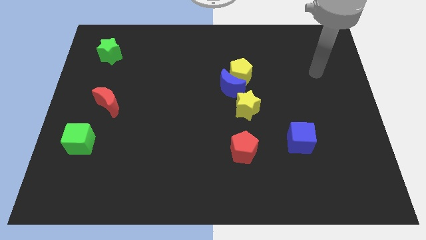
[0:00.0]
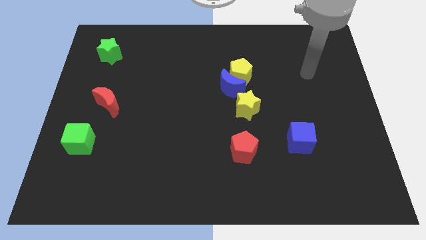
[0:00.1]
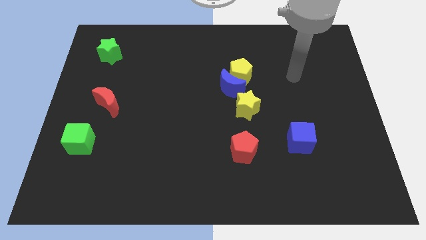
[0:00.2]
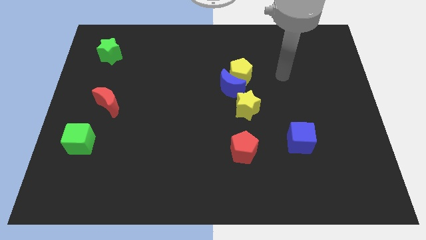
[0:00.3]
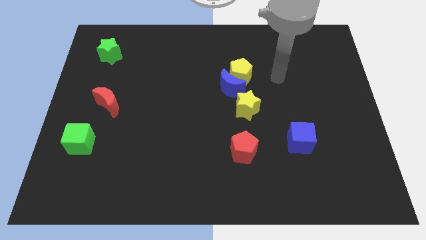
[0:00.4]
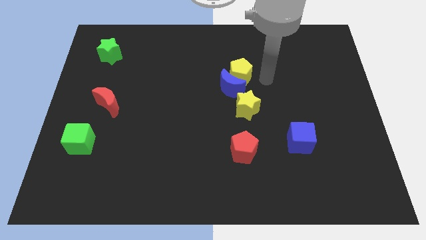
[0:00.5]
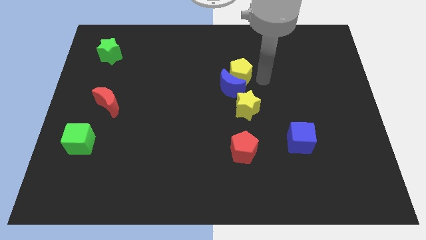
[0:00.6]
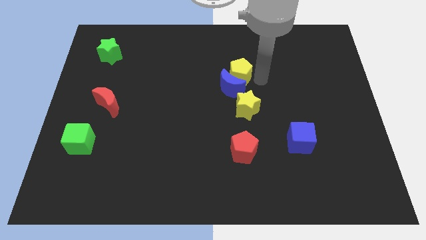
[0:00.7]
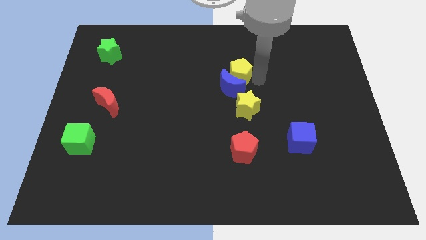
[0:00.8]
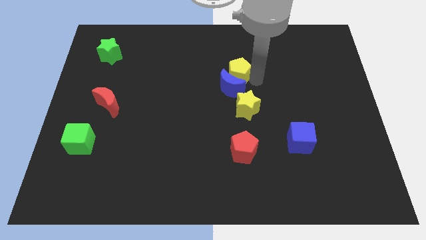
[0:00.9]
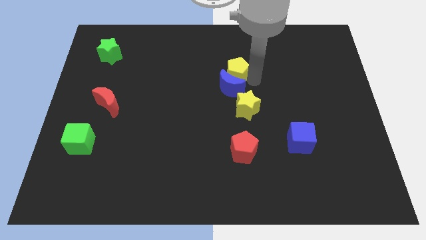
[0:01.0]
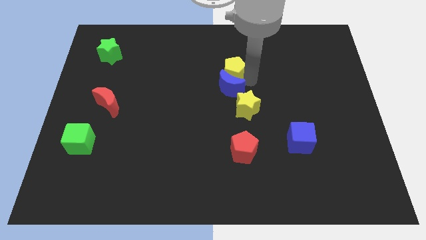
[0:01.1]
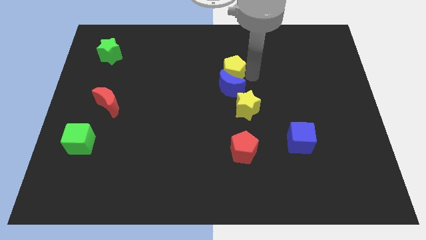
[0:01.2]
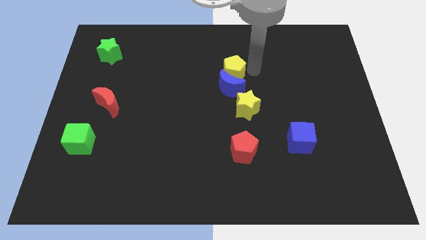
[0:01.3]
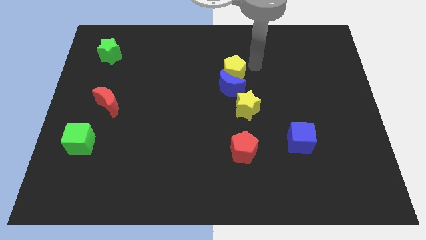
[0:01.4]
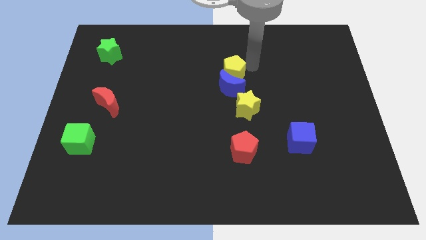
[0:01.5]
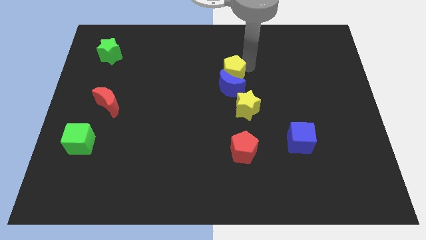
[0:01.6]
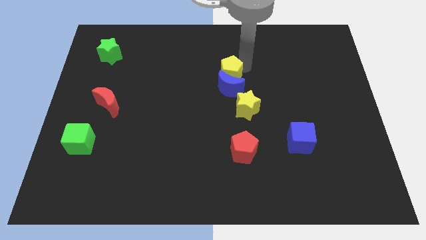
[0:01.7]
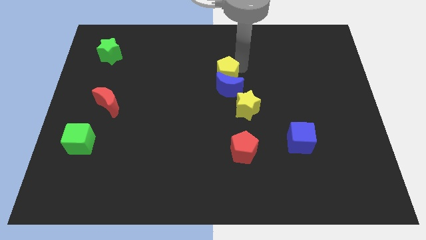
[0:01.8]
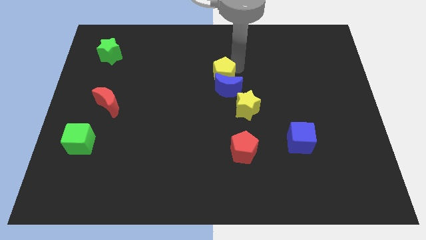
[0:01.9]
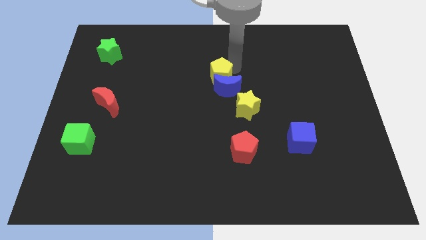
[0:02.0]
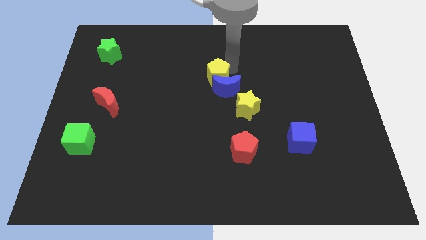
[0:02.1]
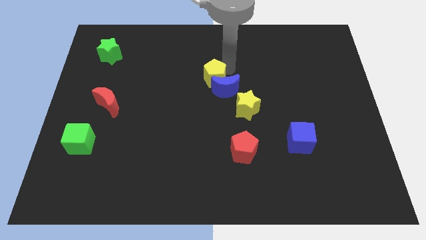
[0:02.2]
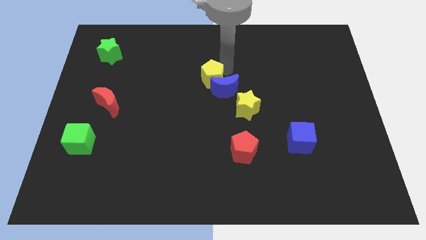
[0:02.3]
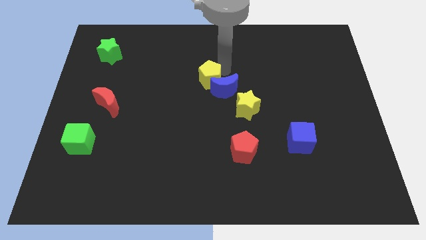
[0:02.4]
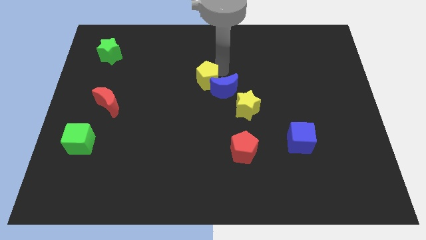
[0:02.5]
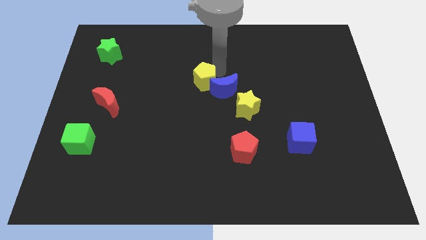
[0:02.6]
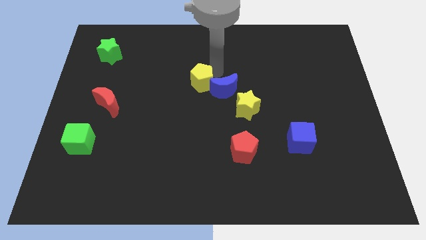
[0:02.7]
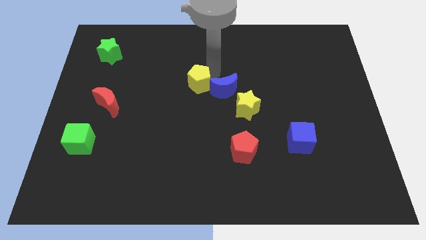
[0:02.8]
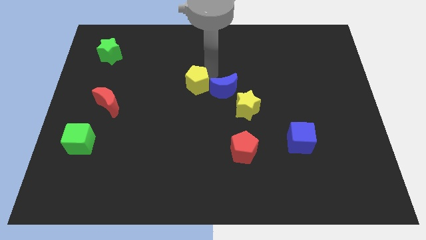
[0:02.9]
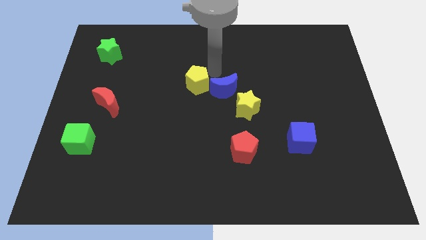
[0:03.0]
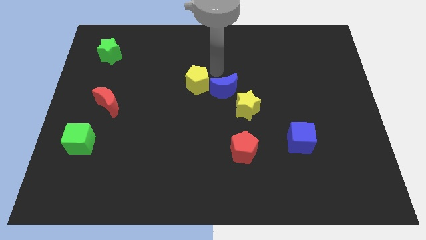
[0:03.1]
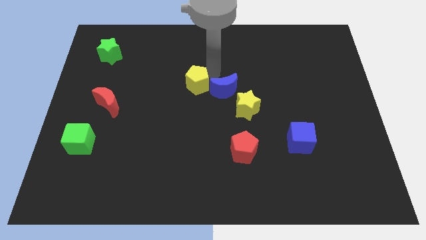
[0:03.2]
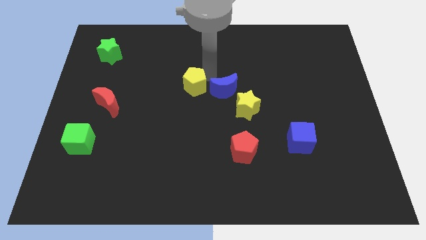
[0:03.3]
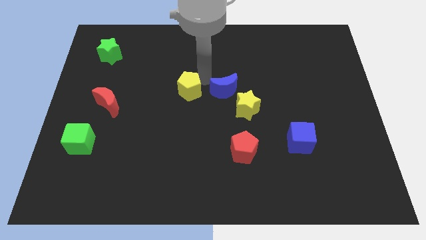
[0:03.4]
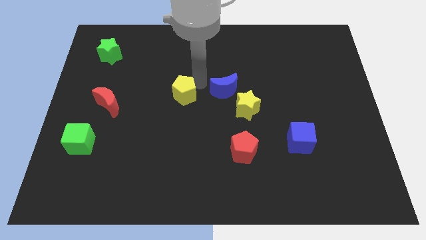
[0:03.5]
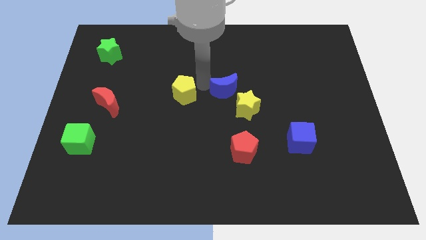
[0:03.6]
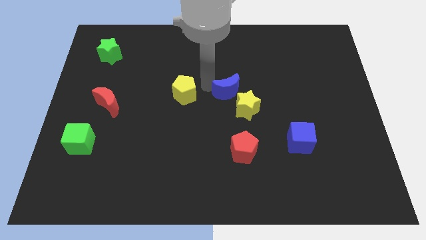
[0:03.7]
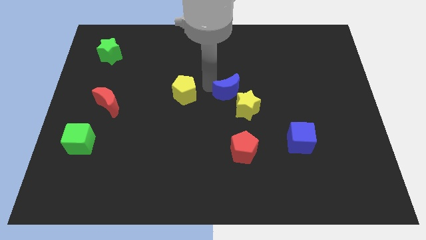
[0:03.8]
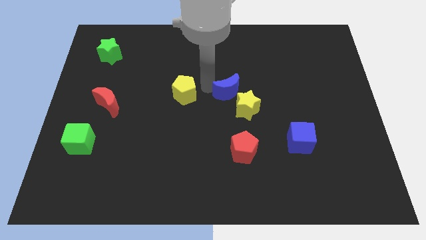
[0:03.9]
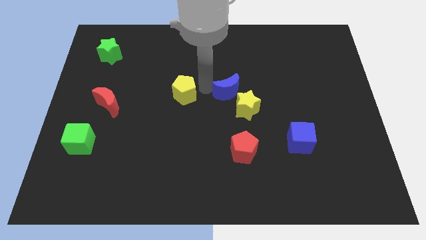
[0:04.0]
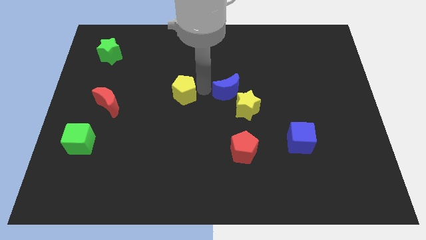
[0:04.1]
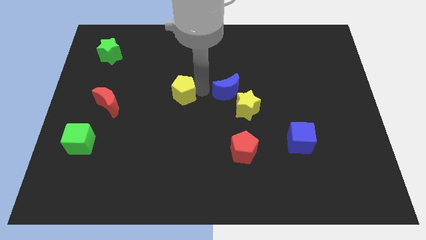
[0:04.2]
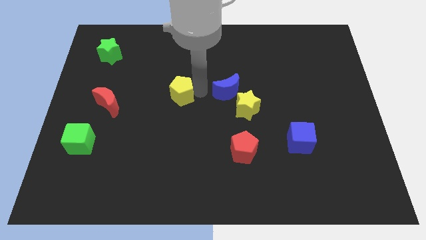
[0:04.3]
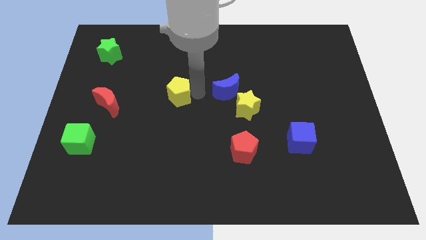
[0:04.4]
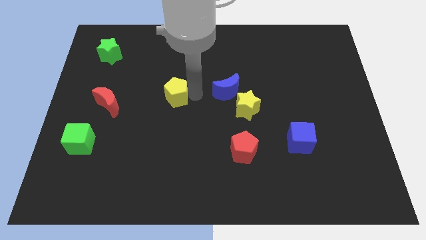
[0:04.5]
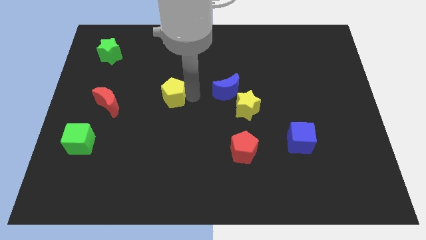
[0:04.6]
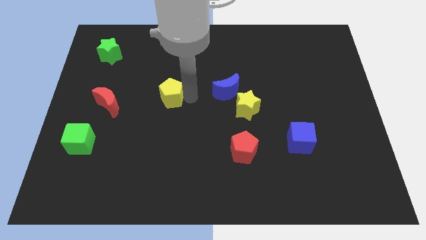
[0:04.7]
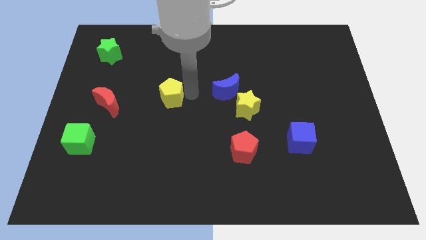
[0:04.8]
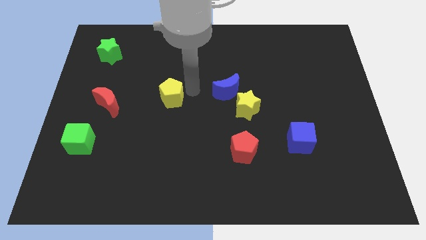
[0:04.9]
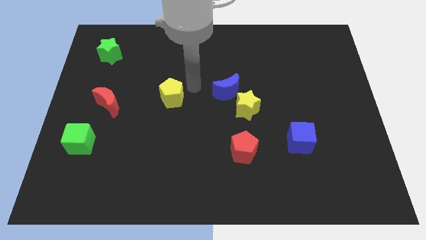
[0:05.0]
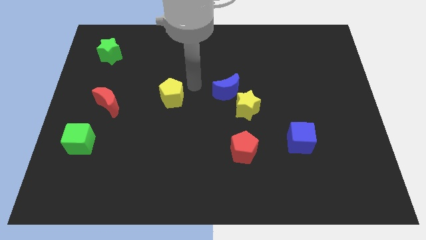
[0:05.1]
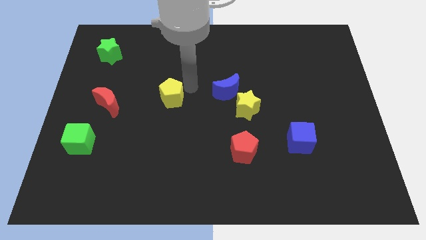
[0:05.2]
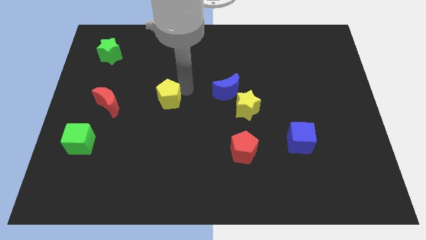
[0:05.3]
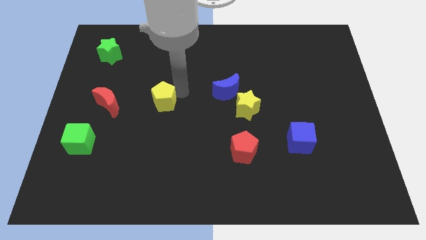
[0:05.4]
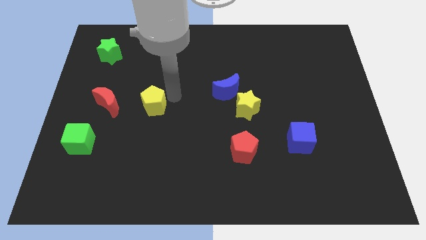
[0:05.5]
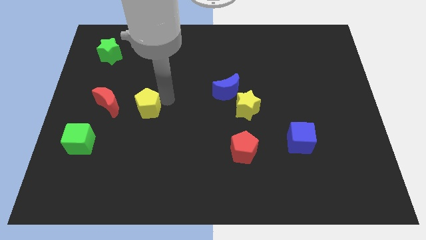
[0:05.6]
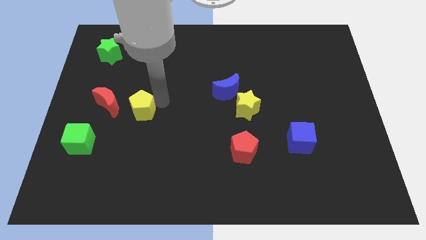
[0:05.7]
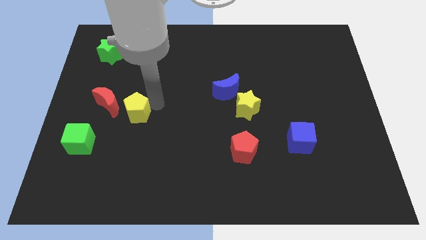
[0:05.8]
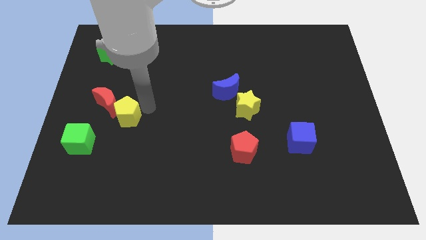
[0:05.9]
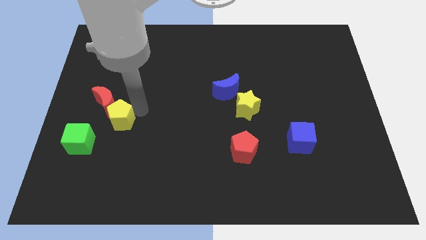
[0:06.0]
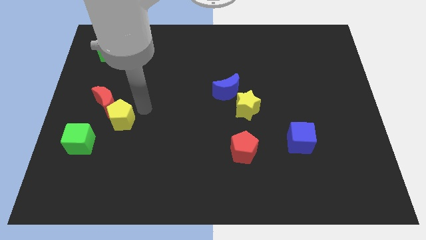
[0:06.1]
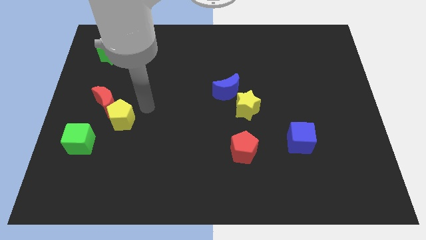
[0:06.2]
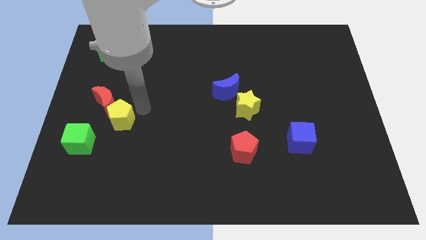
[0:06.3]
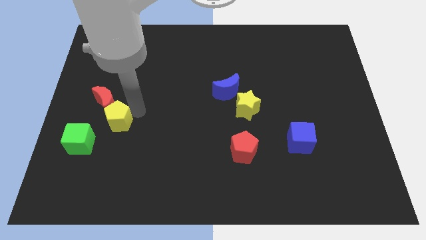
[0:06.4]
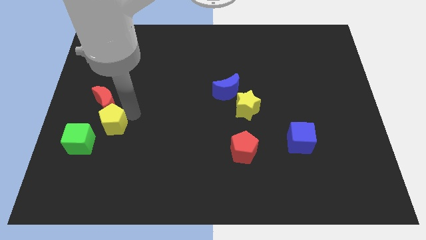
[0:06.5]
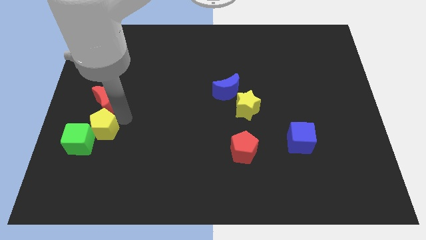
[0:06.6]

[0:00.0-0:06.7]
slide the yellow pentagon towards the green cube

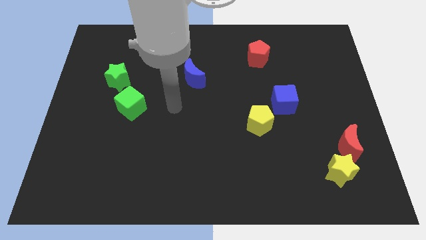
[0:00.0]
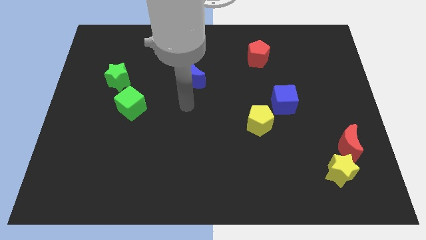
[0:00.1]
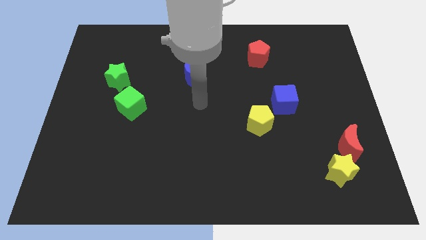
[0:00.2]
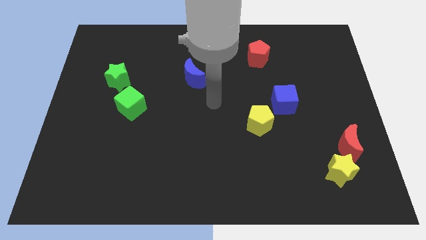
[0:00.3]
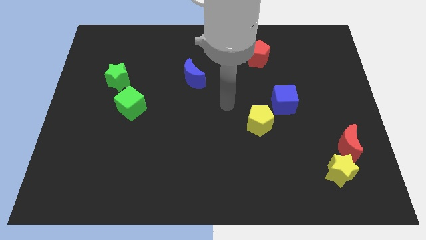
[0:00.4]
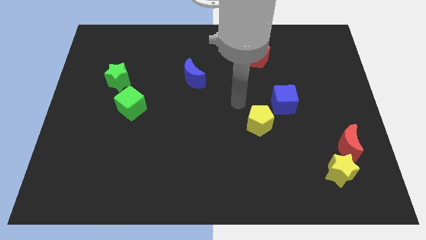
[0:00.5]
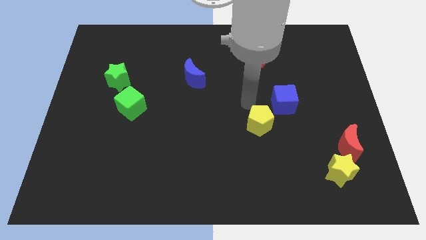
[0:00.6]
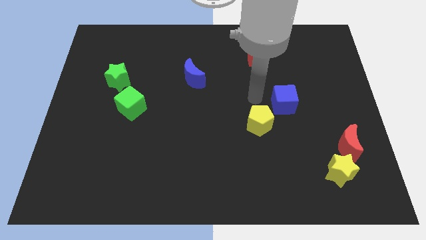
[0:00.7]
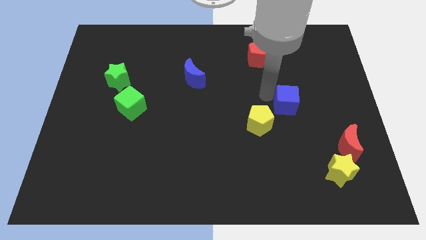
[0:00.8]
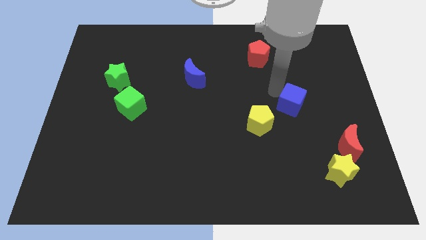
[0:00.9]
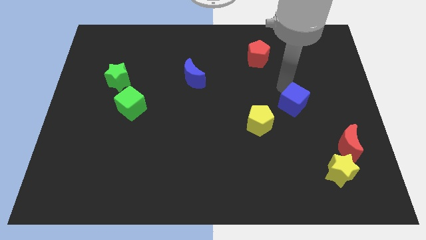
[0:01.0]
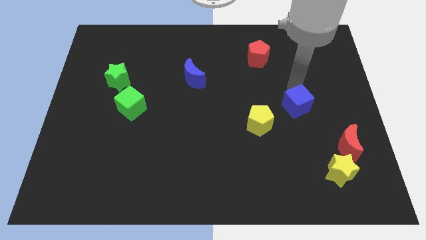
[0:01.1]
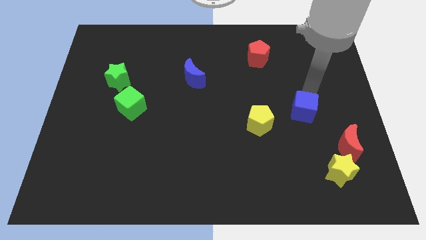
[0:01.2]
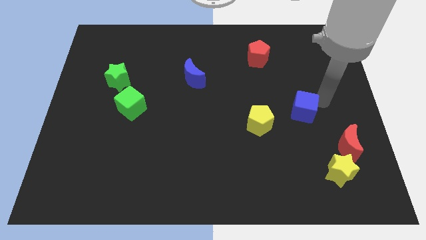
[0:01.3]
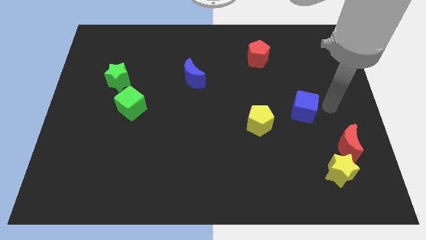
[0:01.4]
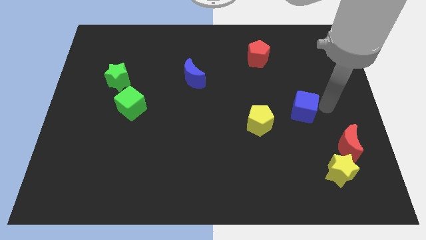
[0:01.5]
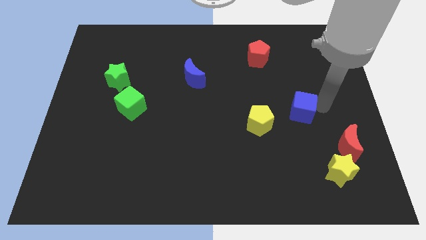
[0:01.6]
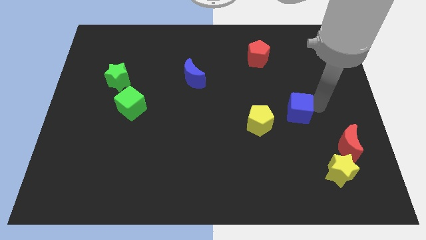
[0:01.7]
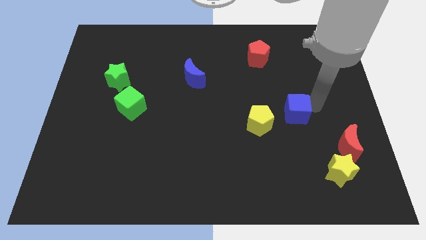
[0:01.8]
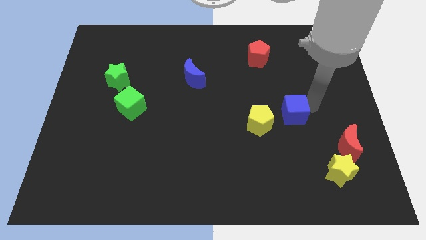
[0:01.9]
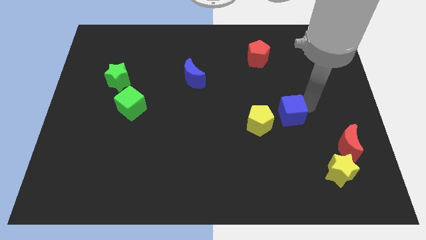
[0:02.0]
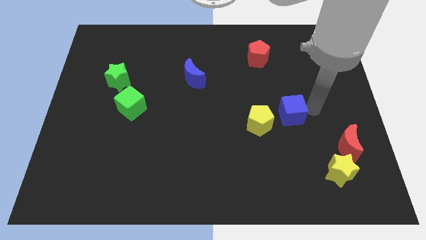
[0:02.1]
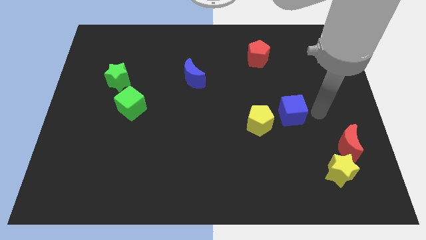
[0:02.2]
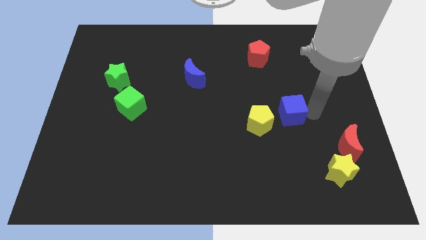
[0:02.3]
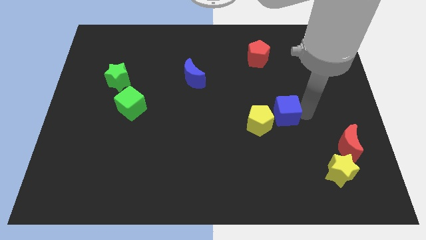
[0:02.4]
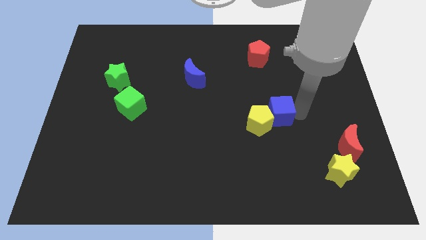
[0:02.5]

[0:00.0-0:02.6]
push the blue cube to the yellow pentagon
